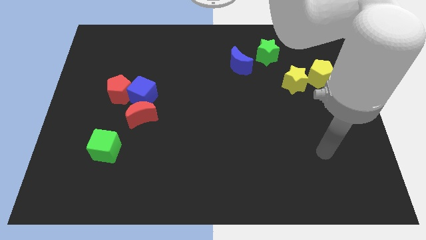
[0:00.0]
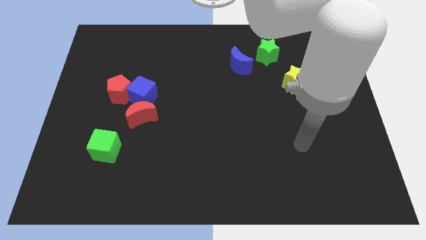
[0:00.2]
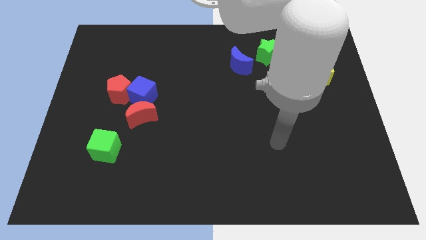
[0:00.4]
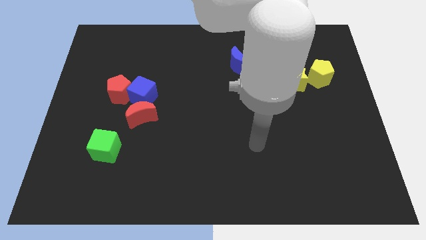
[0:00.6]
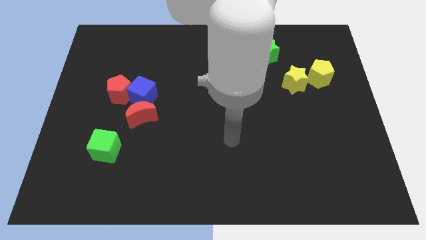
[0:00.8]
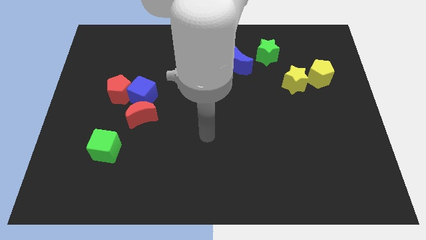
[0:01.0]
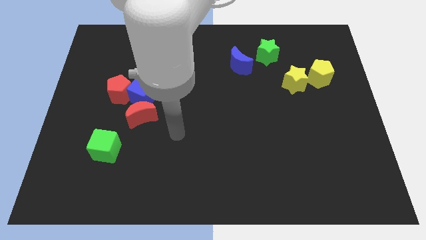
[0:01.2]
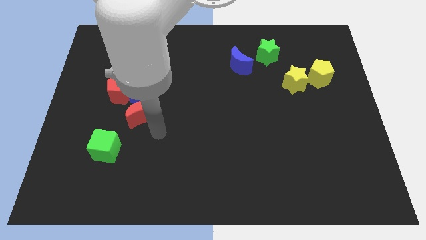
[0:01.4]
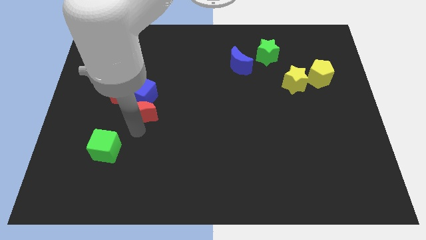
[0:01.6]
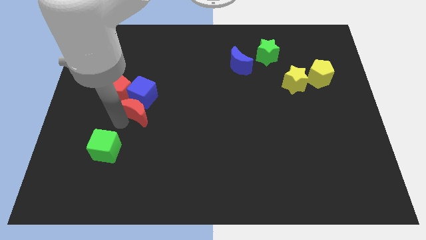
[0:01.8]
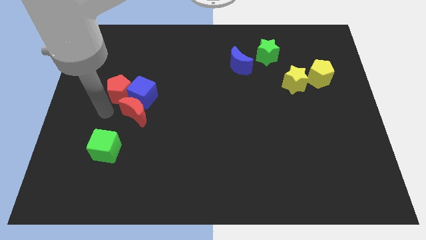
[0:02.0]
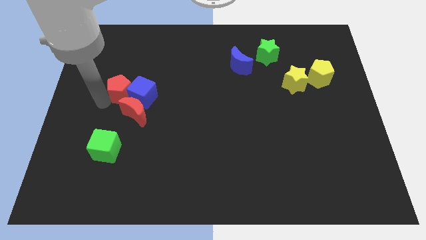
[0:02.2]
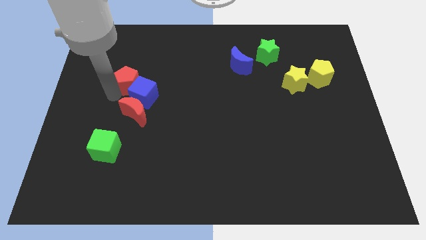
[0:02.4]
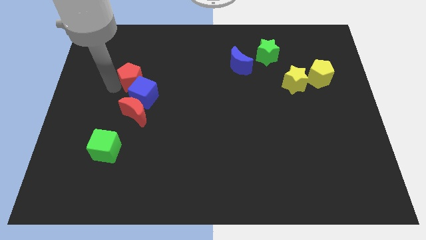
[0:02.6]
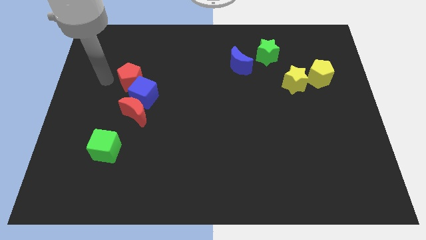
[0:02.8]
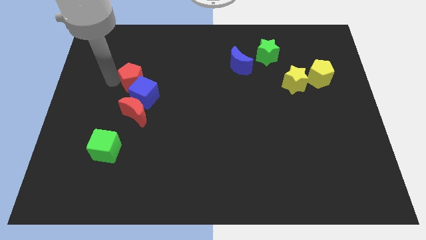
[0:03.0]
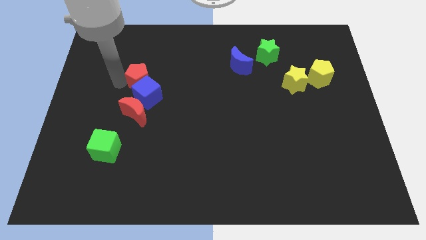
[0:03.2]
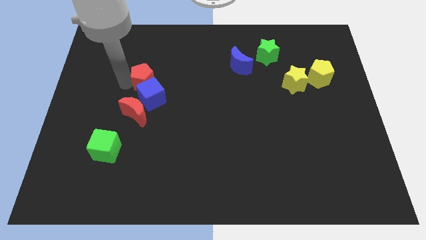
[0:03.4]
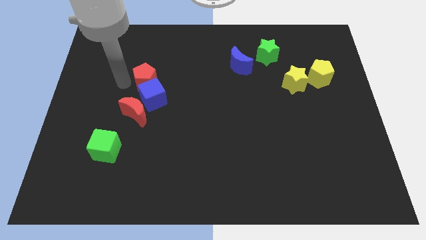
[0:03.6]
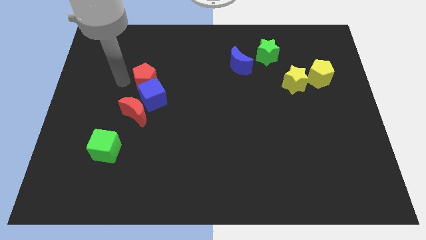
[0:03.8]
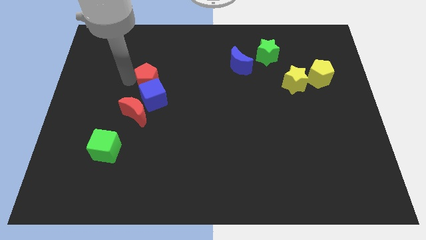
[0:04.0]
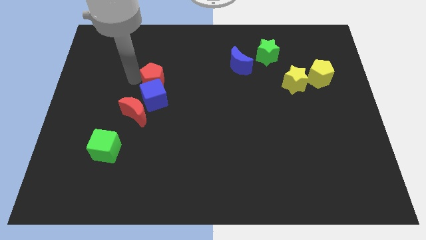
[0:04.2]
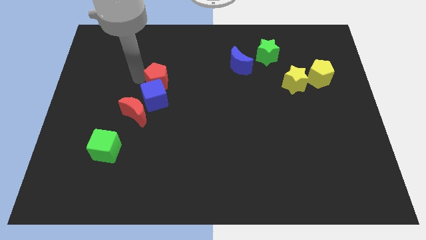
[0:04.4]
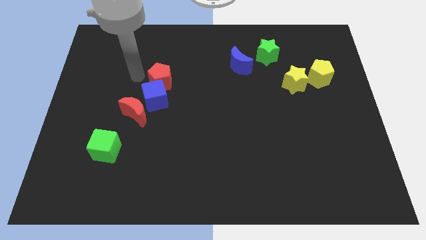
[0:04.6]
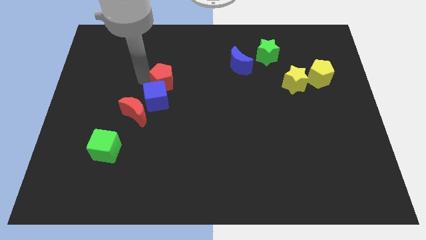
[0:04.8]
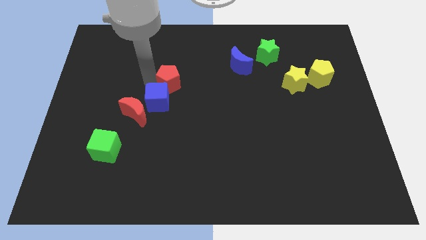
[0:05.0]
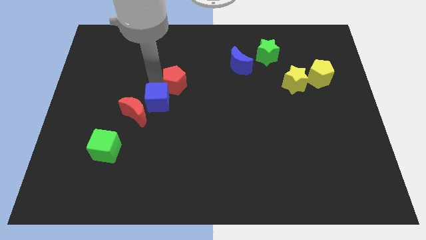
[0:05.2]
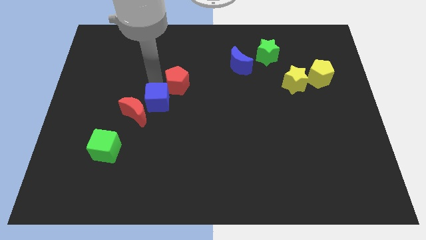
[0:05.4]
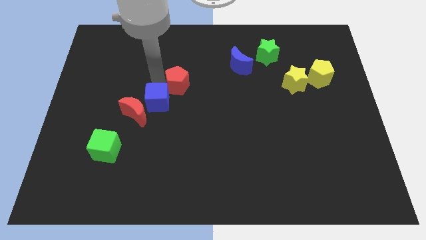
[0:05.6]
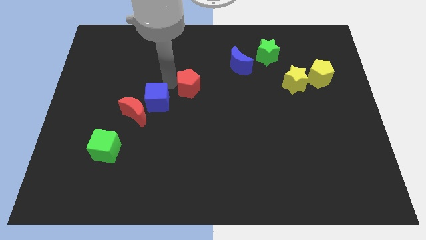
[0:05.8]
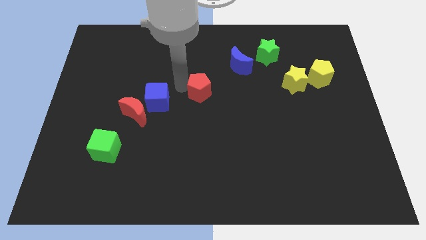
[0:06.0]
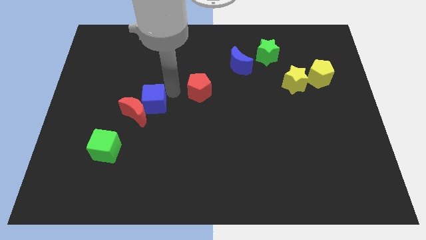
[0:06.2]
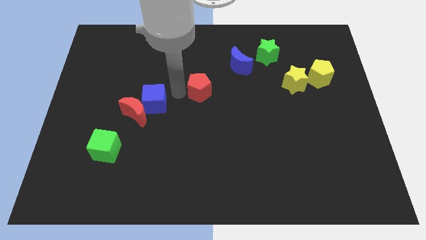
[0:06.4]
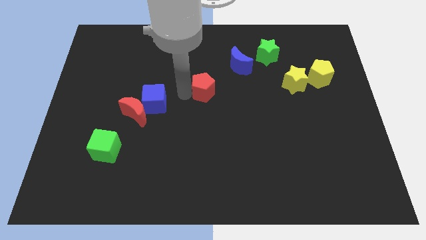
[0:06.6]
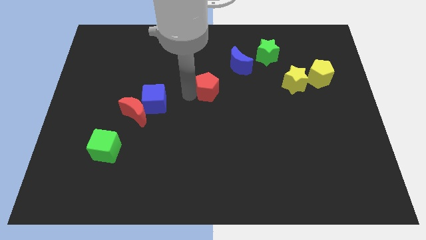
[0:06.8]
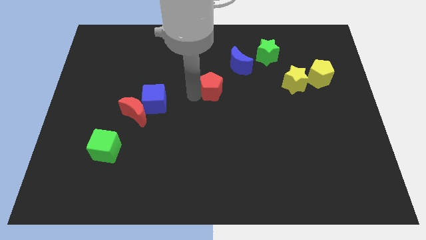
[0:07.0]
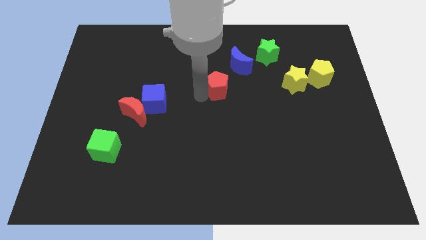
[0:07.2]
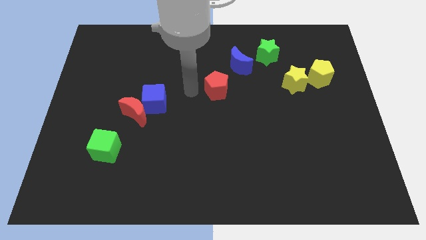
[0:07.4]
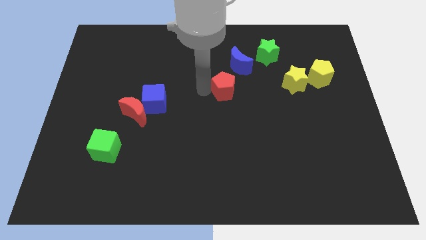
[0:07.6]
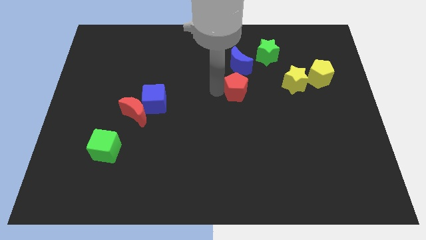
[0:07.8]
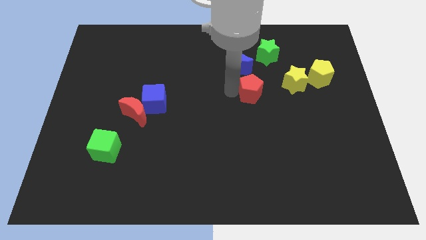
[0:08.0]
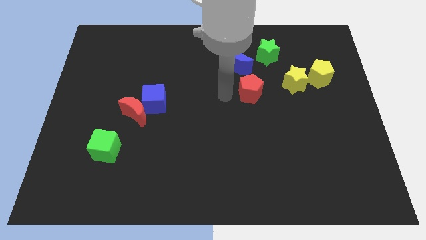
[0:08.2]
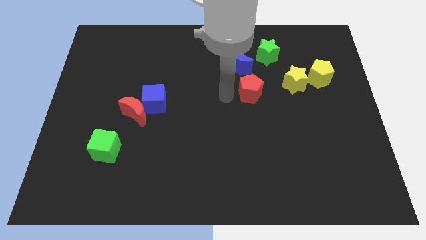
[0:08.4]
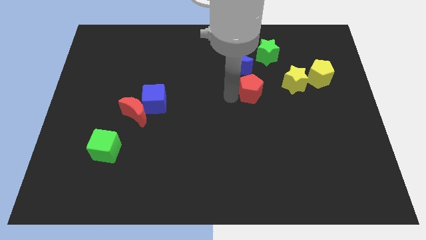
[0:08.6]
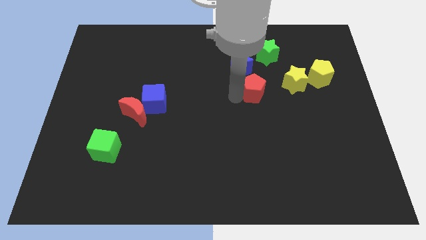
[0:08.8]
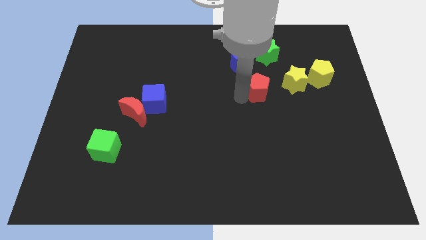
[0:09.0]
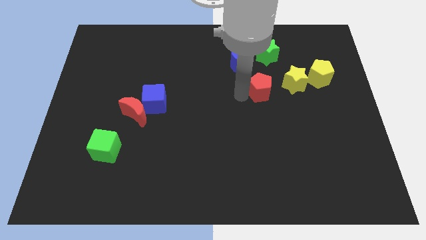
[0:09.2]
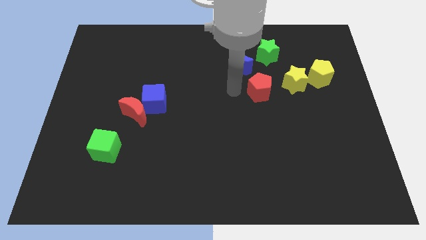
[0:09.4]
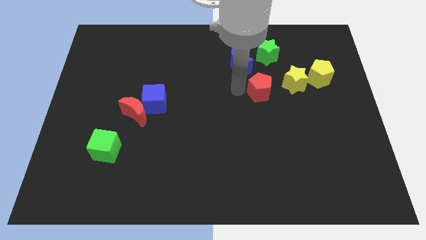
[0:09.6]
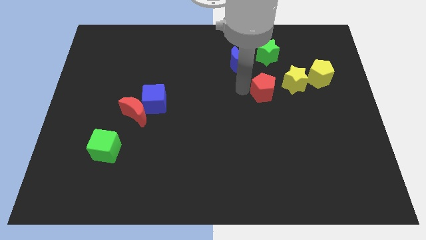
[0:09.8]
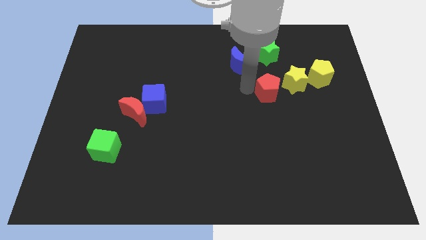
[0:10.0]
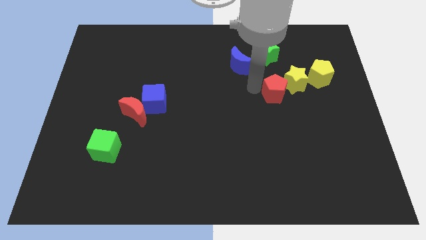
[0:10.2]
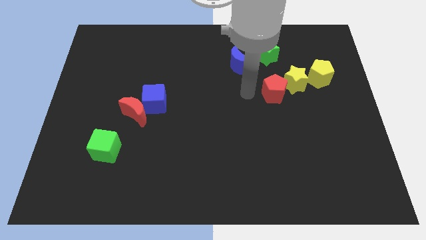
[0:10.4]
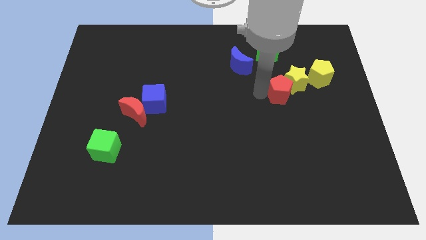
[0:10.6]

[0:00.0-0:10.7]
put the red pentagon to the bottom left of the yellow pentagon

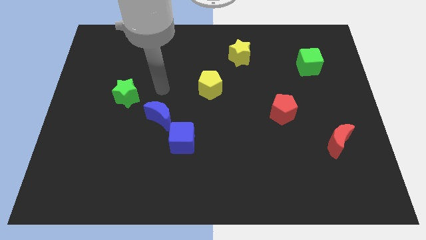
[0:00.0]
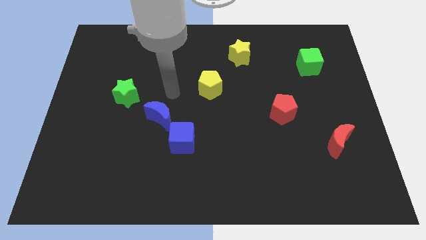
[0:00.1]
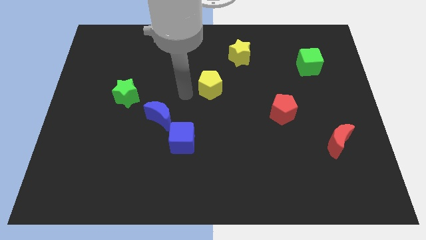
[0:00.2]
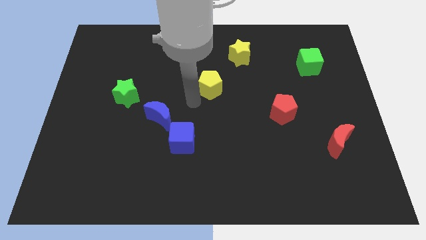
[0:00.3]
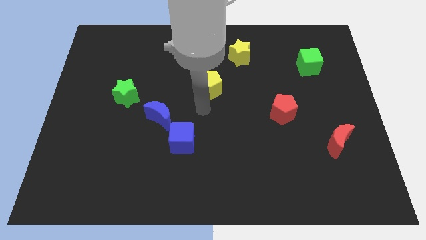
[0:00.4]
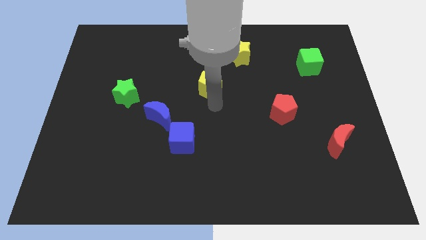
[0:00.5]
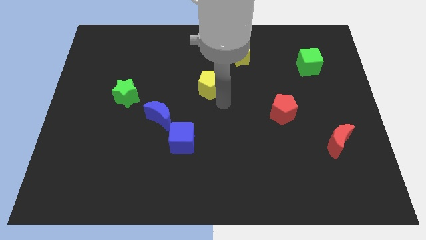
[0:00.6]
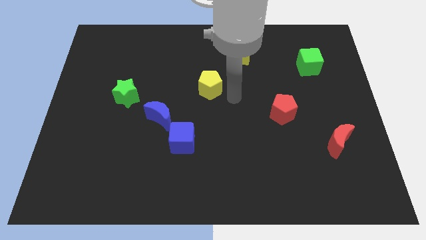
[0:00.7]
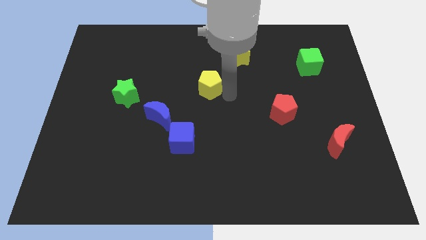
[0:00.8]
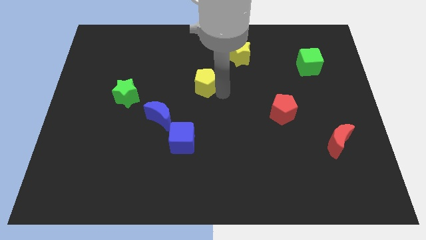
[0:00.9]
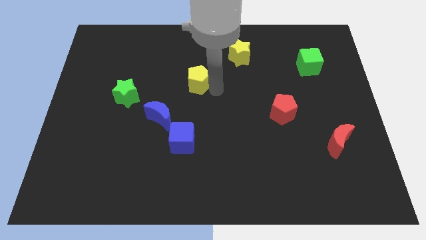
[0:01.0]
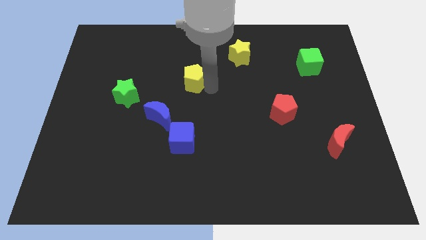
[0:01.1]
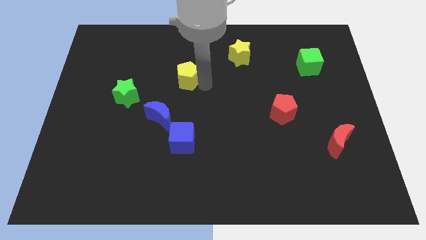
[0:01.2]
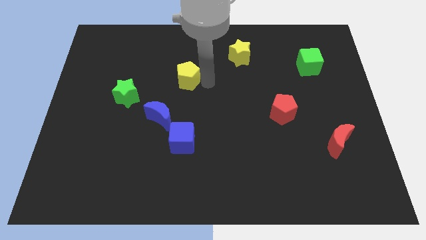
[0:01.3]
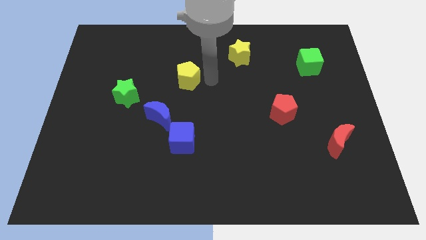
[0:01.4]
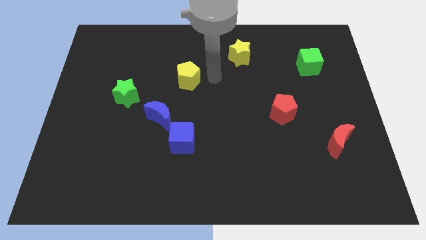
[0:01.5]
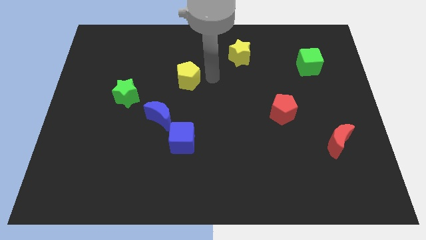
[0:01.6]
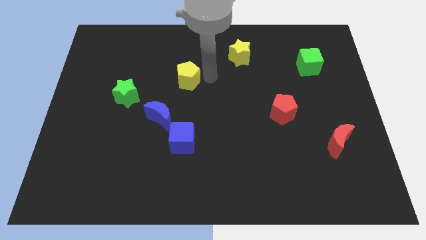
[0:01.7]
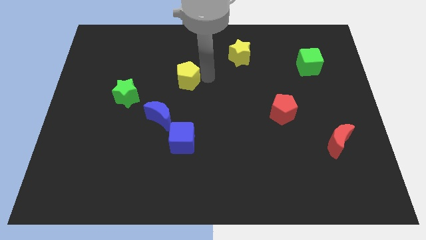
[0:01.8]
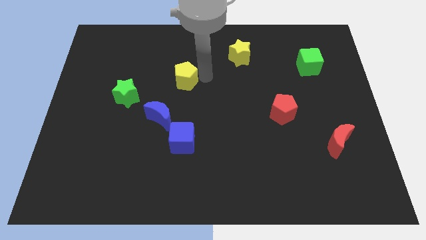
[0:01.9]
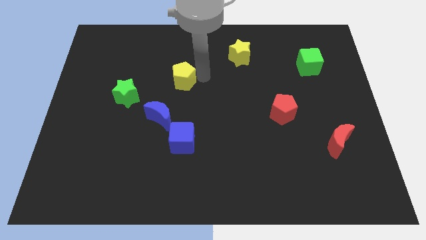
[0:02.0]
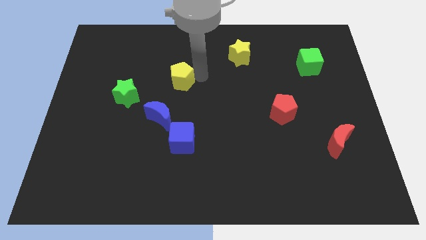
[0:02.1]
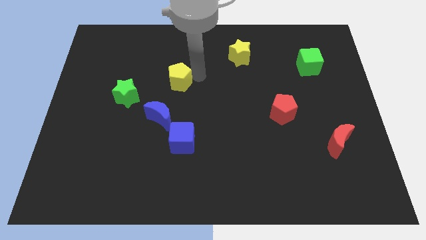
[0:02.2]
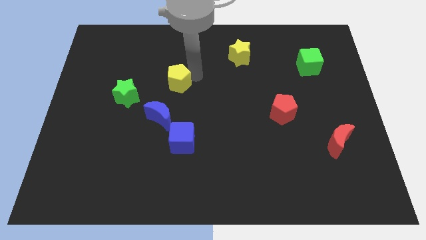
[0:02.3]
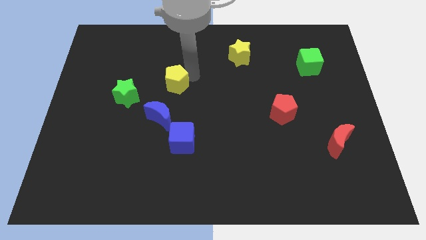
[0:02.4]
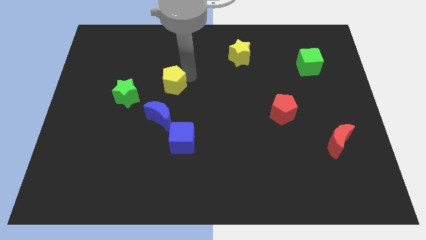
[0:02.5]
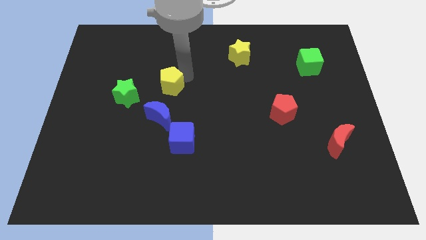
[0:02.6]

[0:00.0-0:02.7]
move the yellow pentagon diagonally up and to the right of the green star
